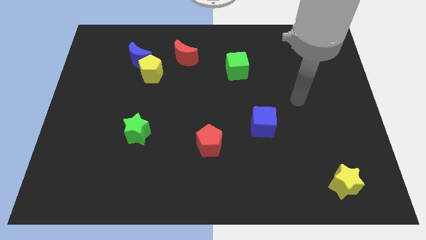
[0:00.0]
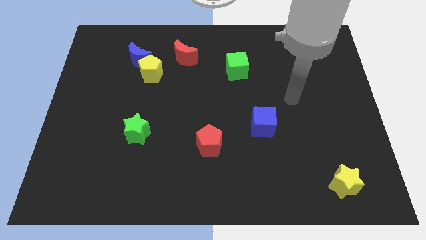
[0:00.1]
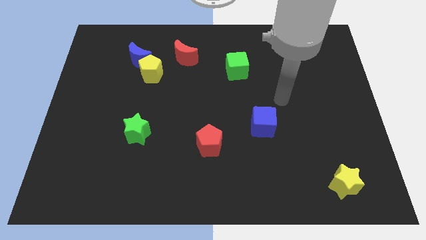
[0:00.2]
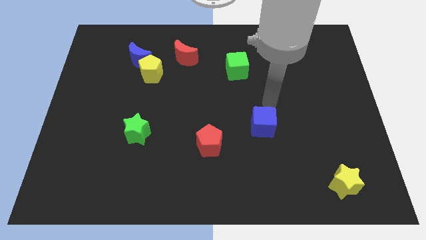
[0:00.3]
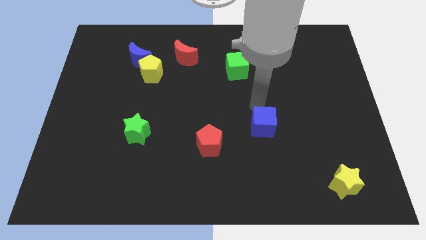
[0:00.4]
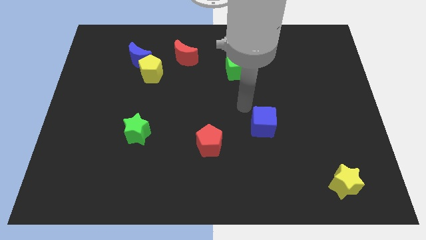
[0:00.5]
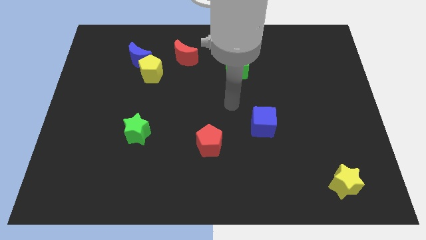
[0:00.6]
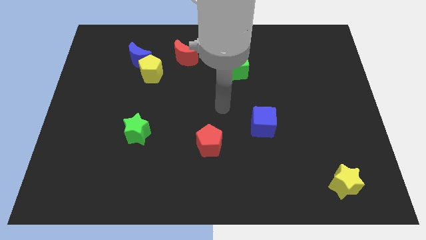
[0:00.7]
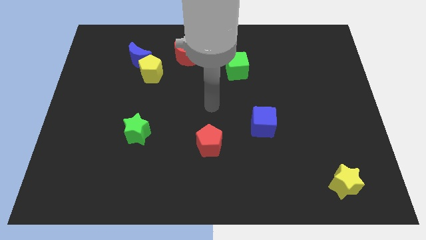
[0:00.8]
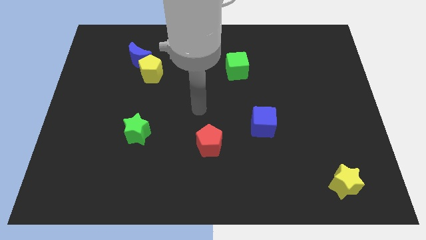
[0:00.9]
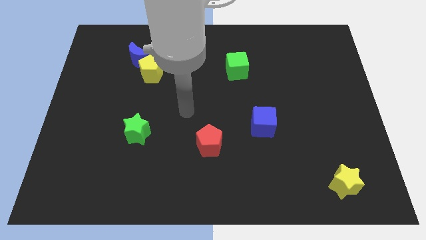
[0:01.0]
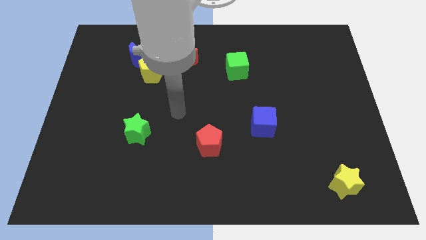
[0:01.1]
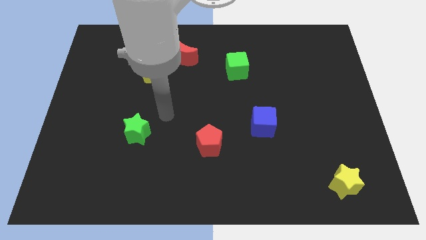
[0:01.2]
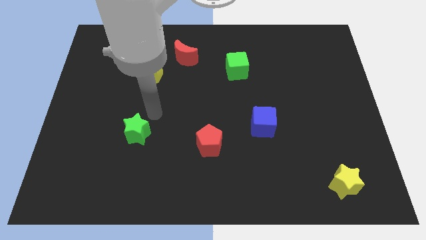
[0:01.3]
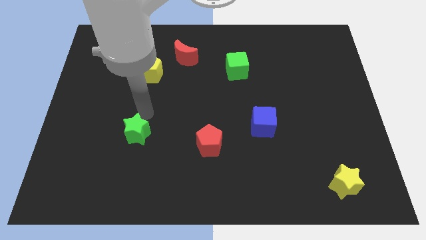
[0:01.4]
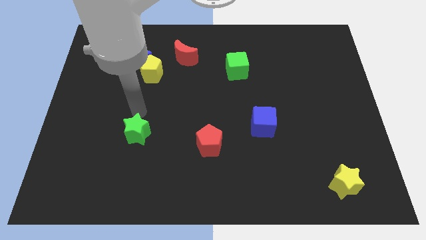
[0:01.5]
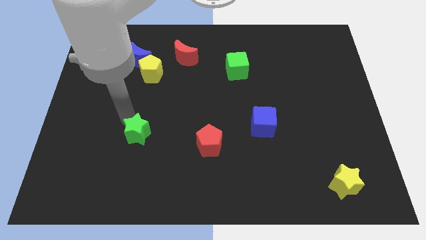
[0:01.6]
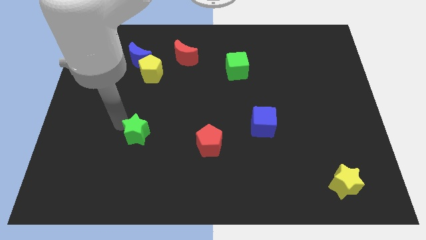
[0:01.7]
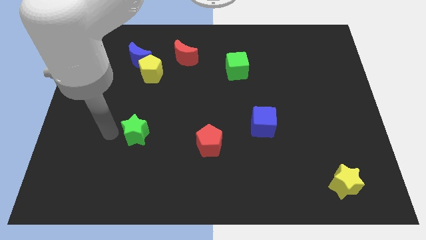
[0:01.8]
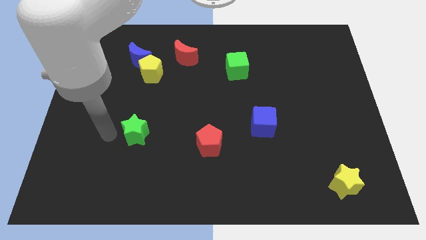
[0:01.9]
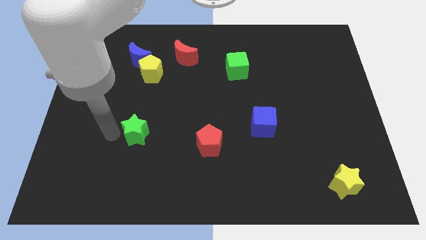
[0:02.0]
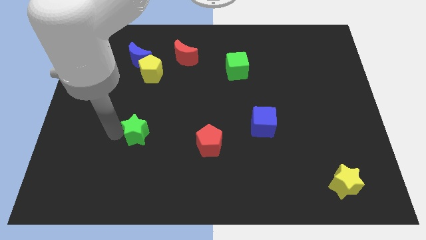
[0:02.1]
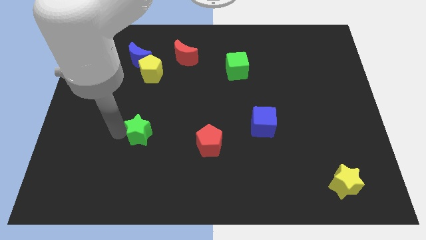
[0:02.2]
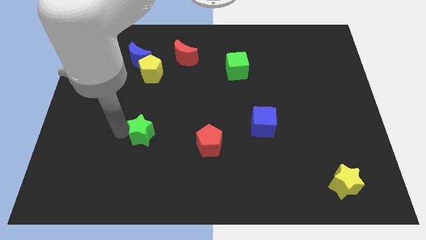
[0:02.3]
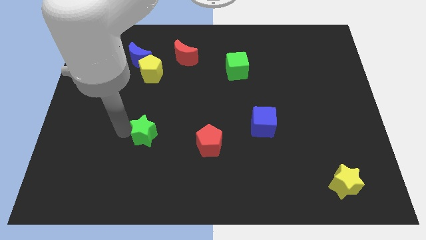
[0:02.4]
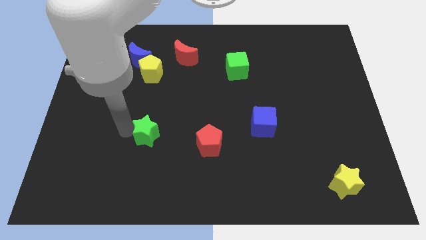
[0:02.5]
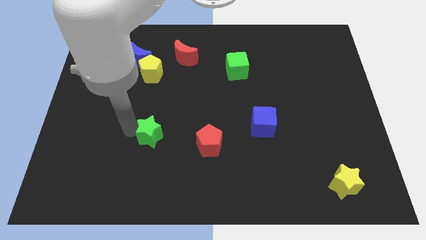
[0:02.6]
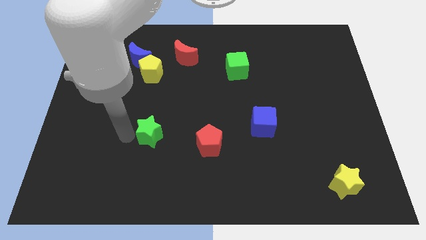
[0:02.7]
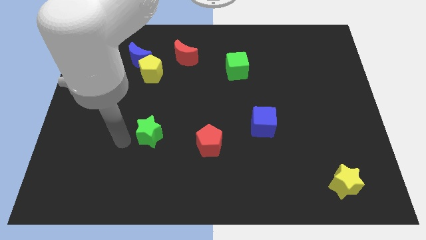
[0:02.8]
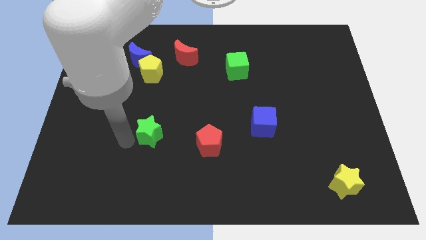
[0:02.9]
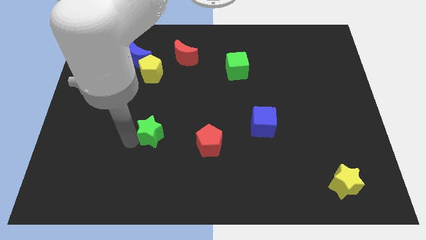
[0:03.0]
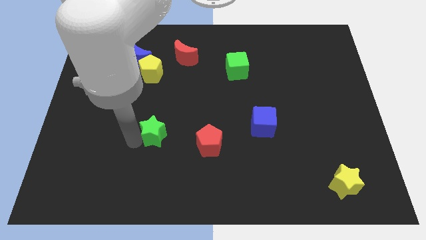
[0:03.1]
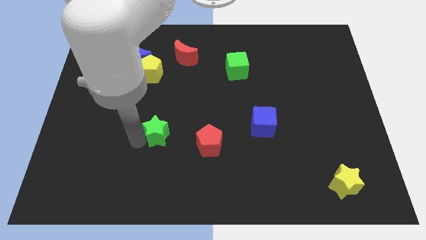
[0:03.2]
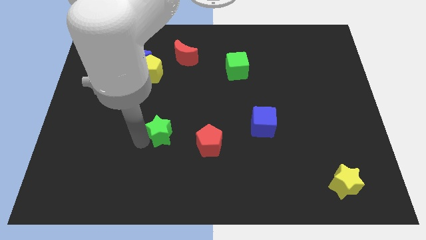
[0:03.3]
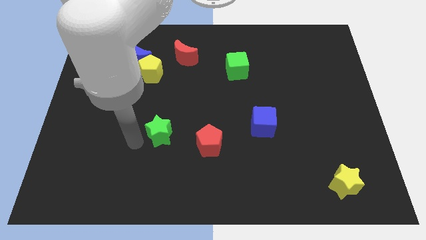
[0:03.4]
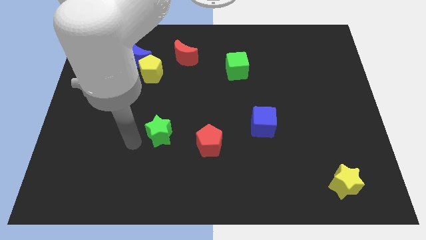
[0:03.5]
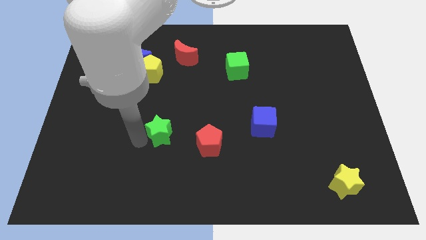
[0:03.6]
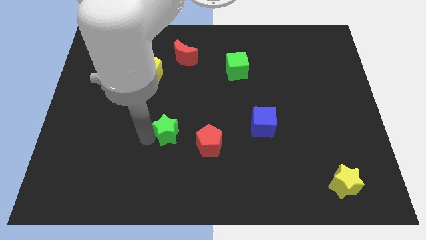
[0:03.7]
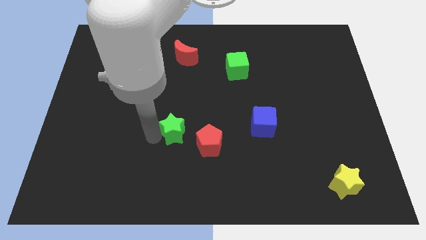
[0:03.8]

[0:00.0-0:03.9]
move the green star to the right somewhat

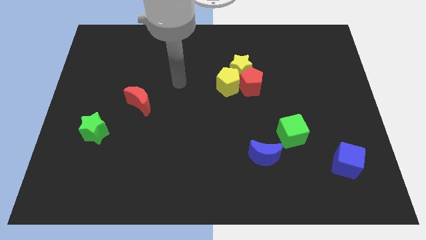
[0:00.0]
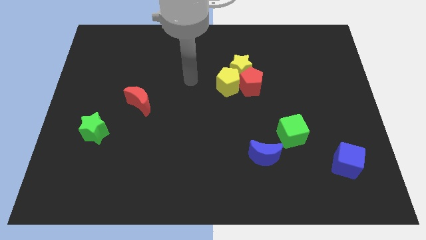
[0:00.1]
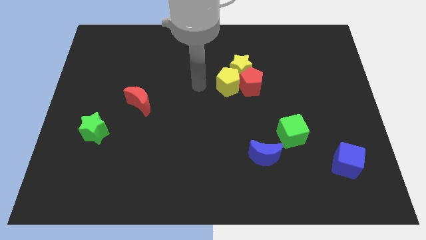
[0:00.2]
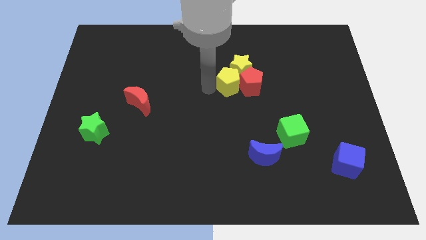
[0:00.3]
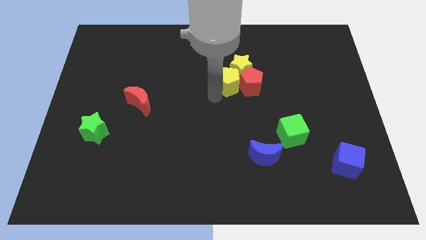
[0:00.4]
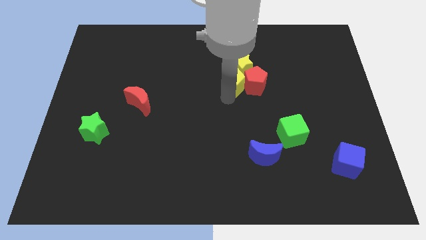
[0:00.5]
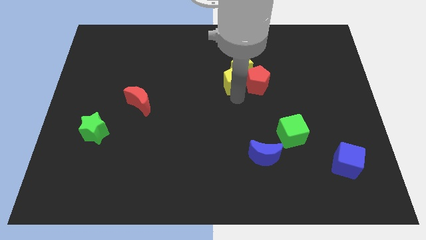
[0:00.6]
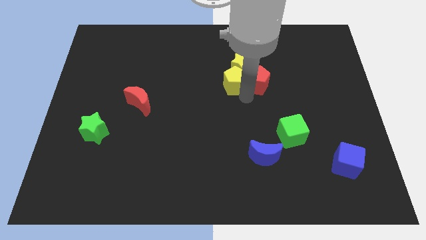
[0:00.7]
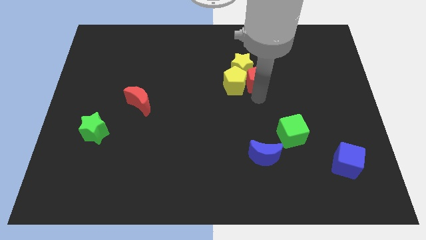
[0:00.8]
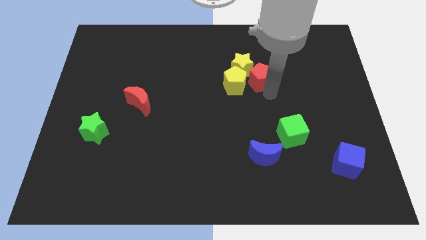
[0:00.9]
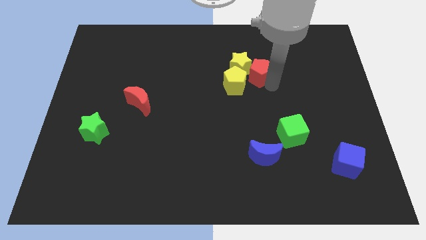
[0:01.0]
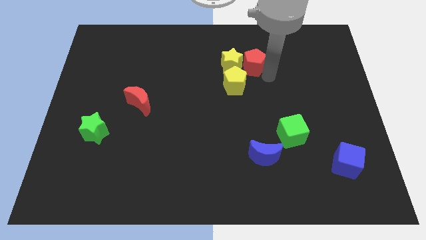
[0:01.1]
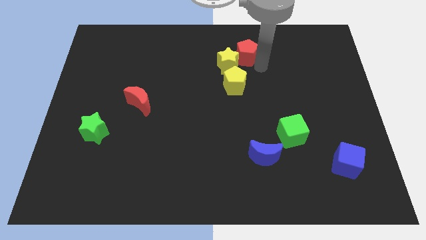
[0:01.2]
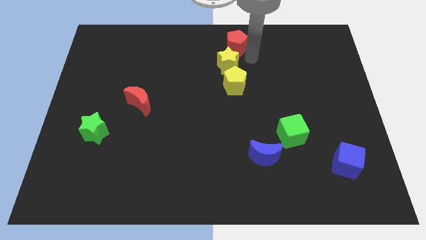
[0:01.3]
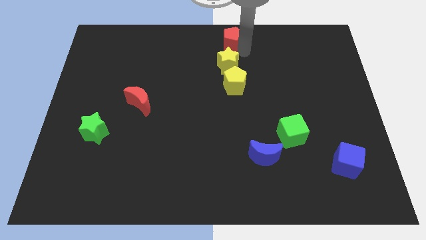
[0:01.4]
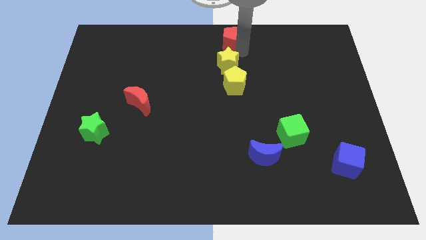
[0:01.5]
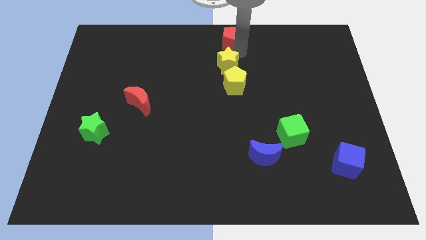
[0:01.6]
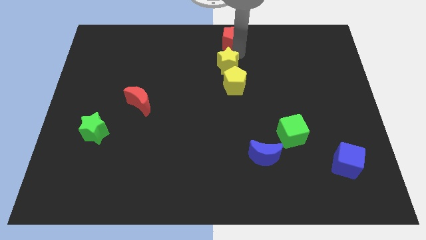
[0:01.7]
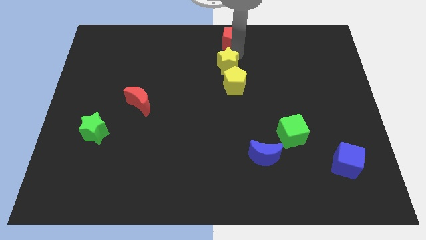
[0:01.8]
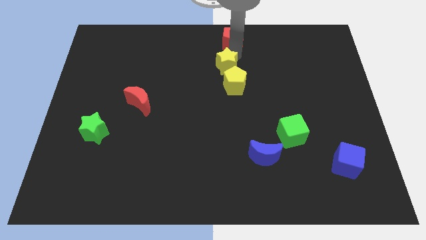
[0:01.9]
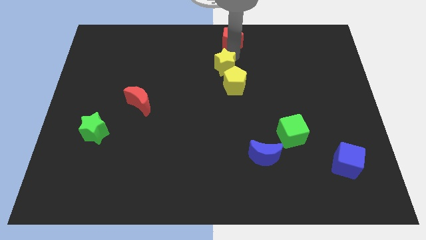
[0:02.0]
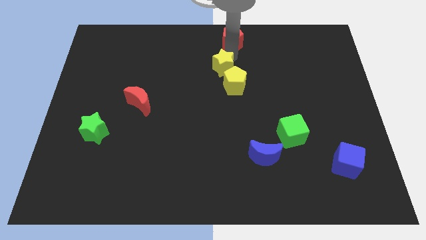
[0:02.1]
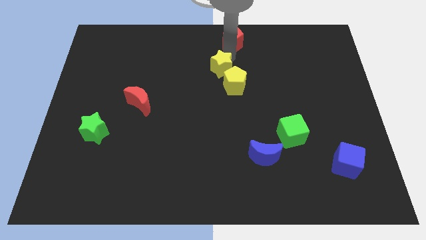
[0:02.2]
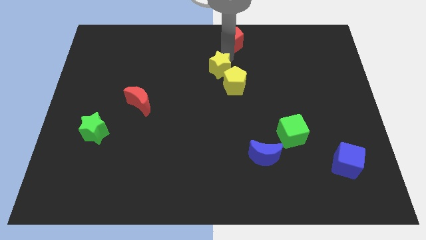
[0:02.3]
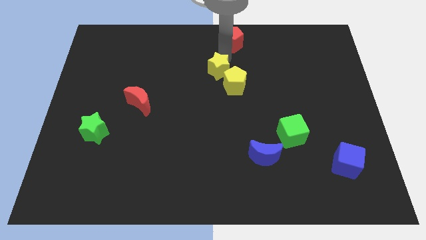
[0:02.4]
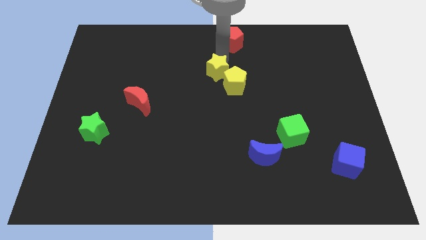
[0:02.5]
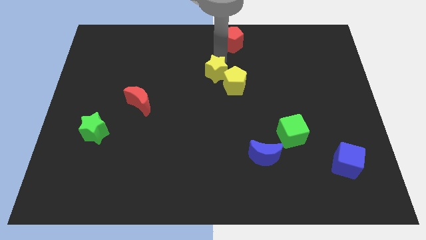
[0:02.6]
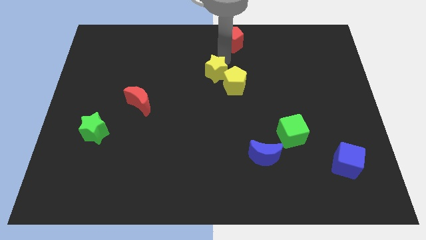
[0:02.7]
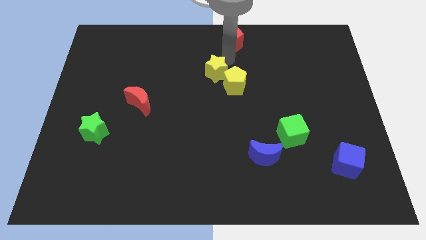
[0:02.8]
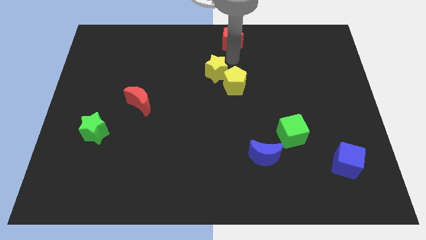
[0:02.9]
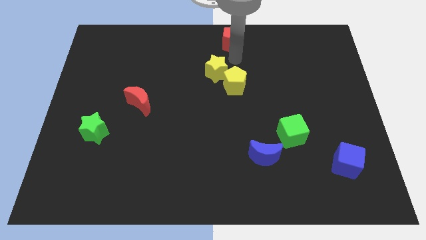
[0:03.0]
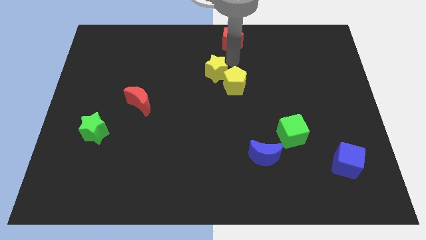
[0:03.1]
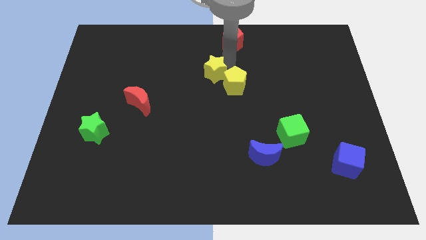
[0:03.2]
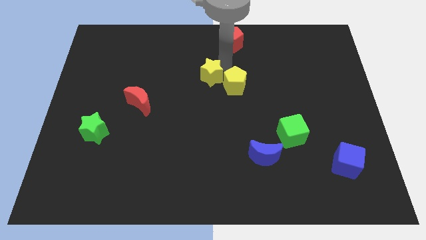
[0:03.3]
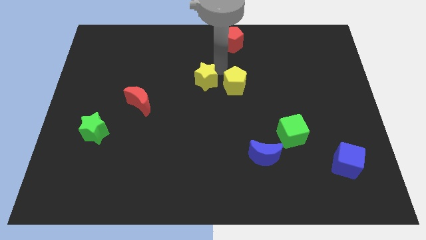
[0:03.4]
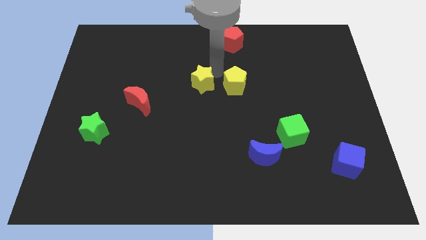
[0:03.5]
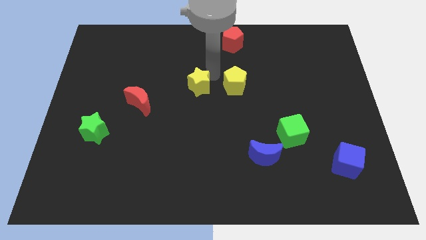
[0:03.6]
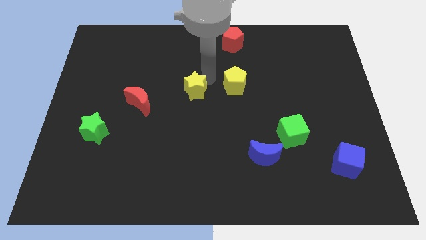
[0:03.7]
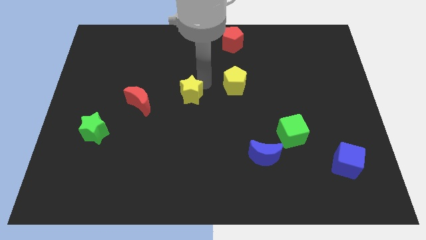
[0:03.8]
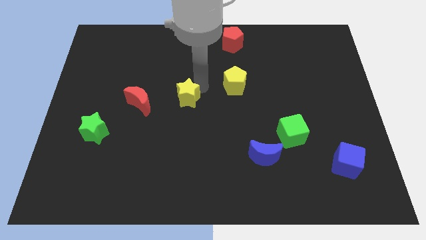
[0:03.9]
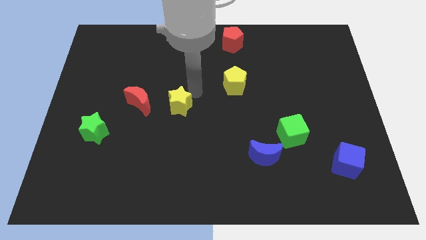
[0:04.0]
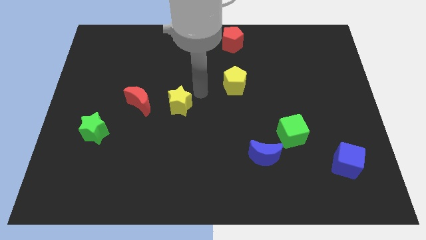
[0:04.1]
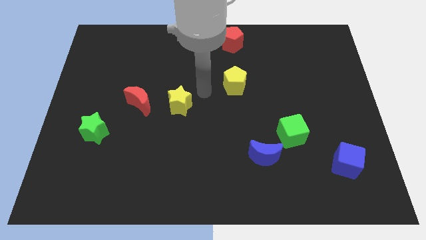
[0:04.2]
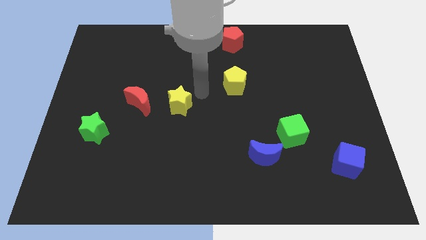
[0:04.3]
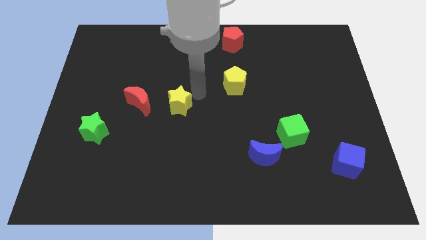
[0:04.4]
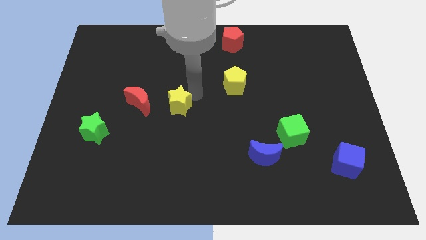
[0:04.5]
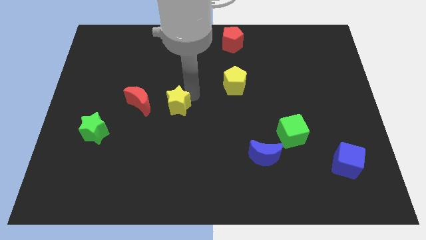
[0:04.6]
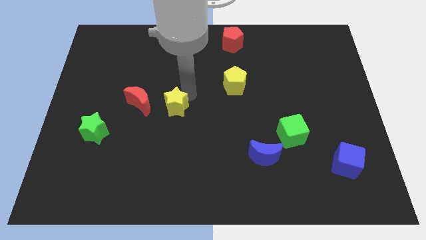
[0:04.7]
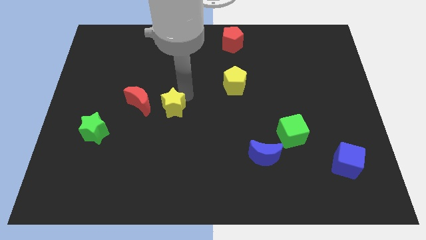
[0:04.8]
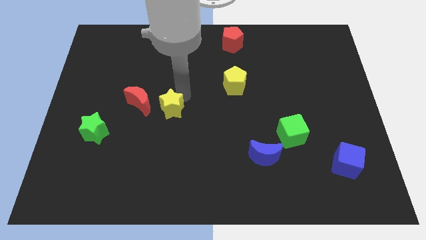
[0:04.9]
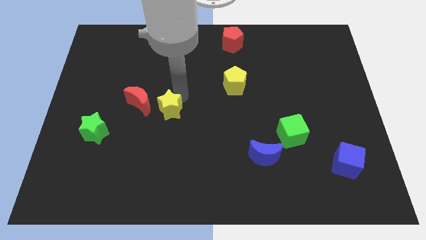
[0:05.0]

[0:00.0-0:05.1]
move the yellow star diagonally downwards and to the left
